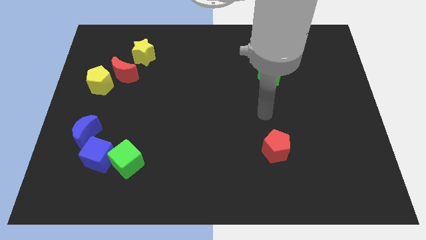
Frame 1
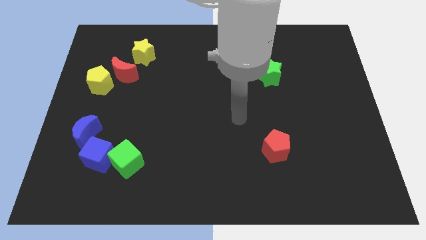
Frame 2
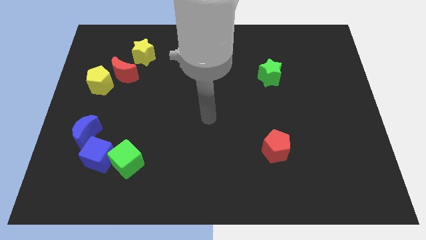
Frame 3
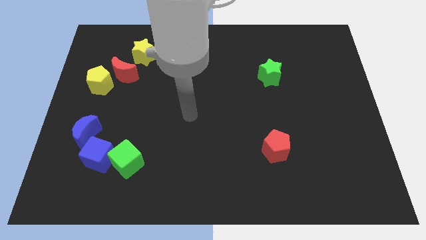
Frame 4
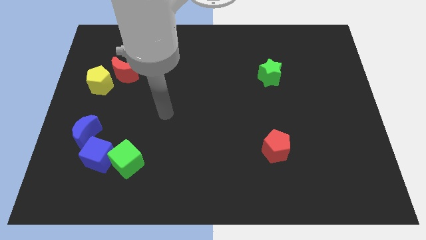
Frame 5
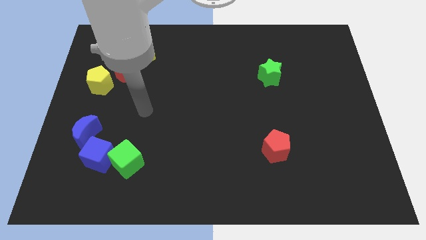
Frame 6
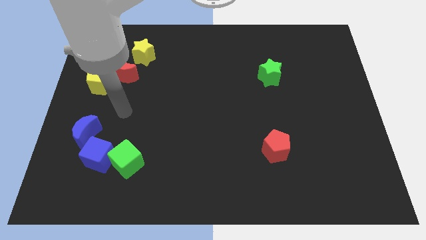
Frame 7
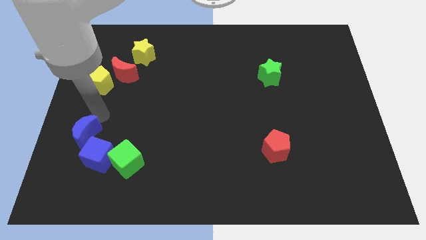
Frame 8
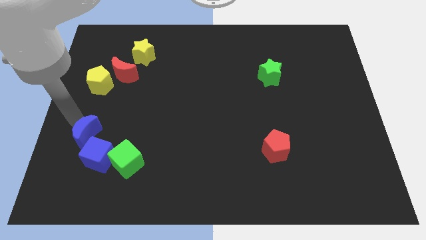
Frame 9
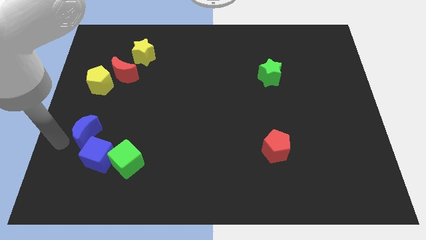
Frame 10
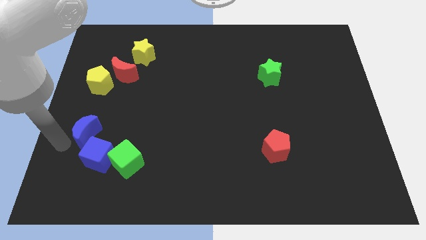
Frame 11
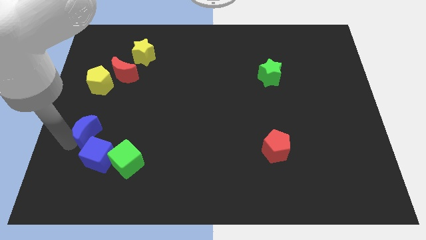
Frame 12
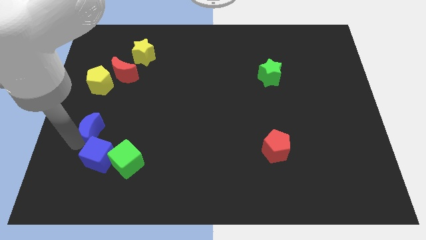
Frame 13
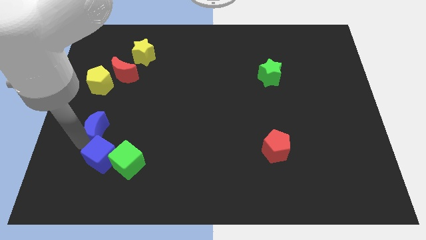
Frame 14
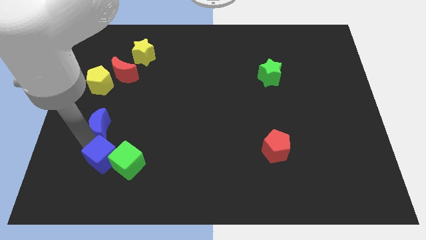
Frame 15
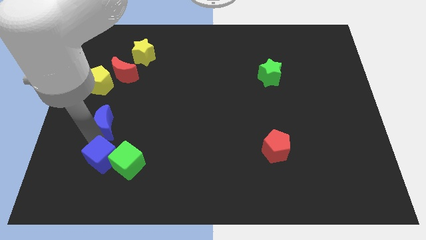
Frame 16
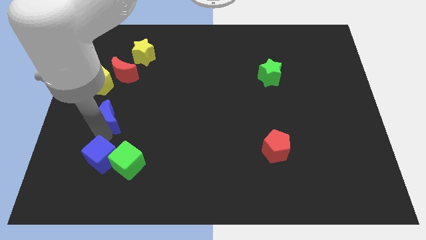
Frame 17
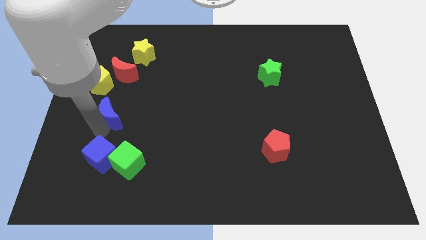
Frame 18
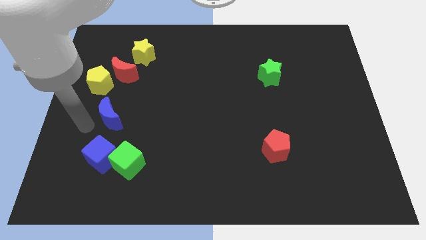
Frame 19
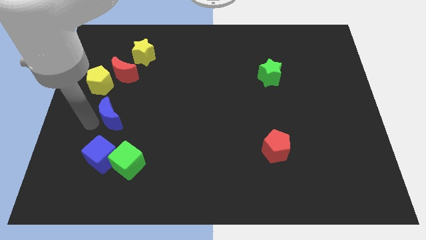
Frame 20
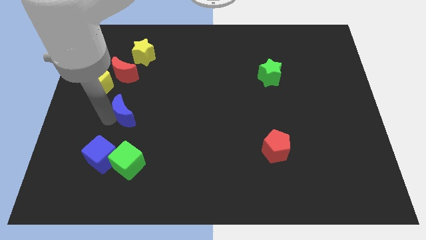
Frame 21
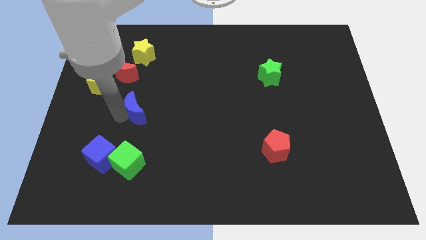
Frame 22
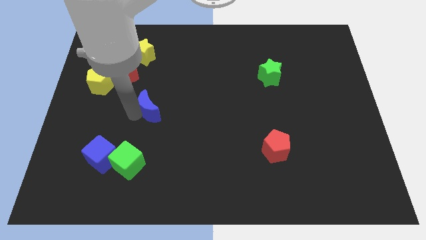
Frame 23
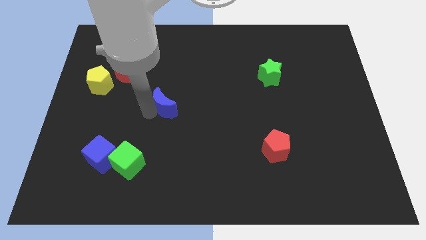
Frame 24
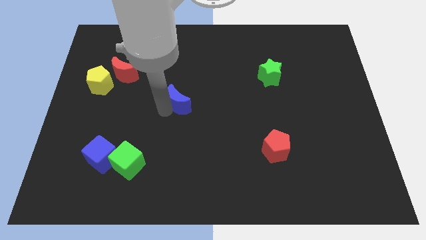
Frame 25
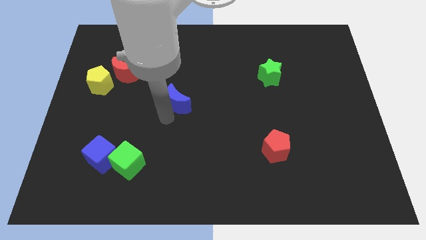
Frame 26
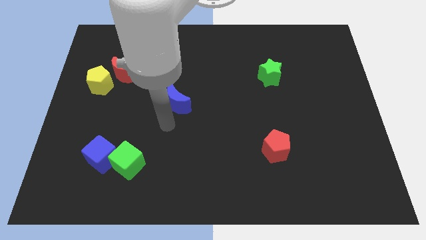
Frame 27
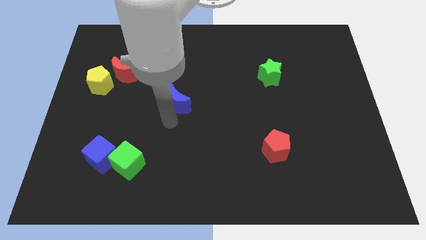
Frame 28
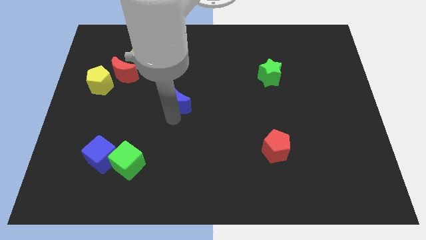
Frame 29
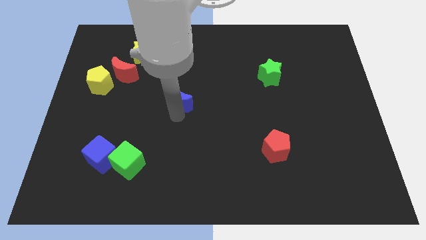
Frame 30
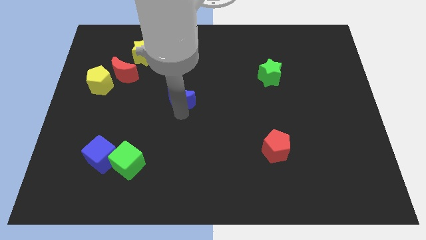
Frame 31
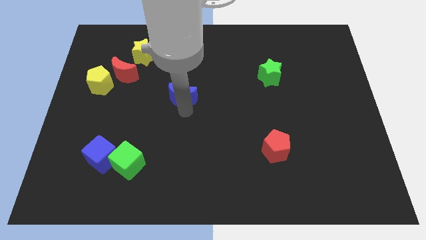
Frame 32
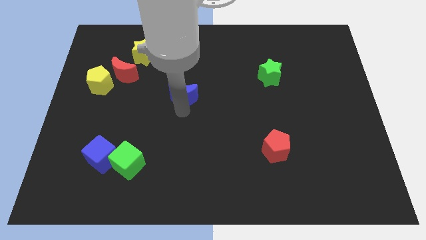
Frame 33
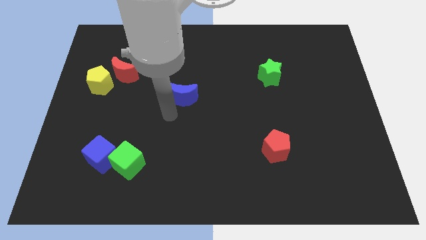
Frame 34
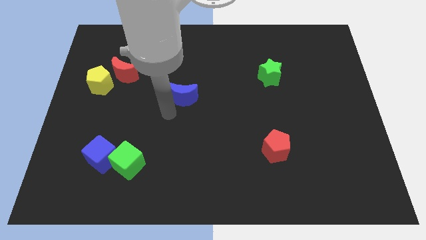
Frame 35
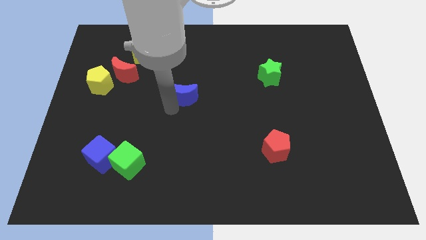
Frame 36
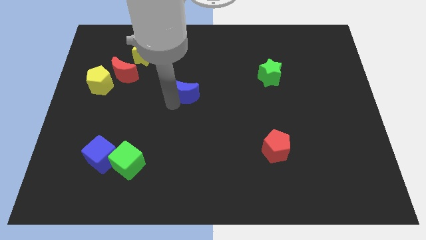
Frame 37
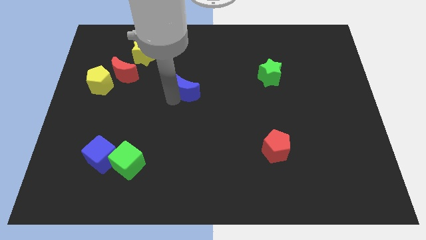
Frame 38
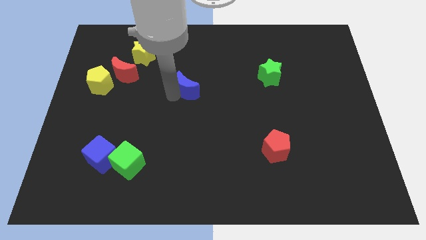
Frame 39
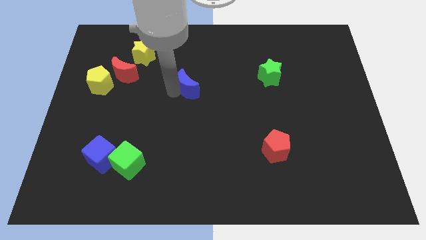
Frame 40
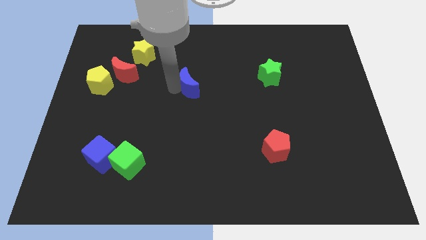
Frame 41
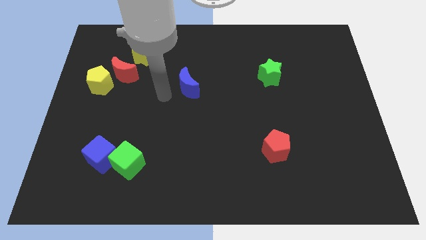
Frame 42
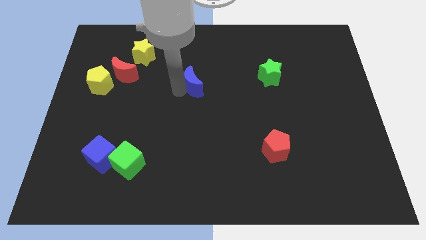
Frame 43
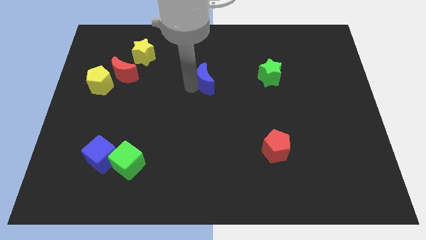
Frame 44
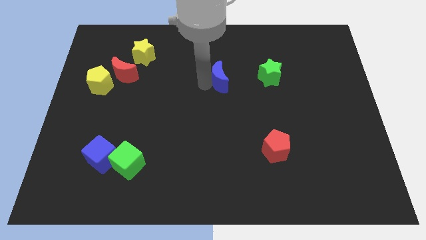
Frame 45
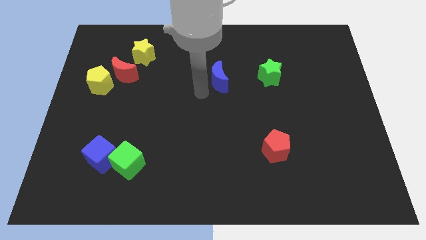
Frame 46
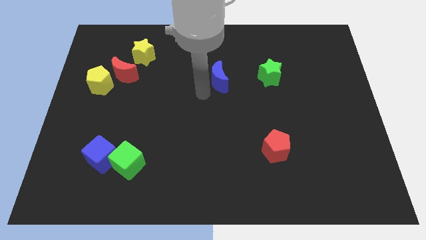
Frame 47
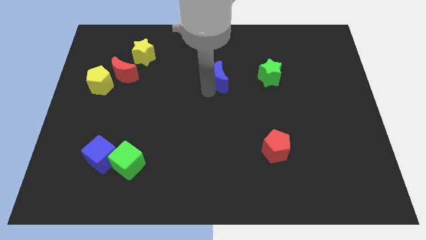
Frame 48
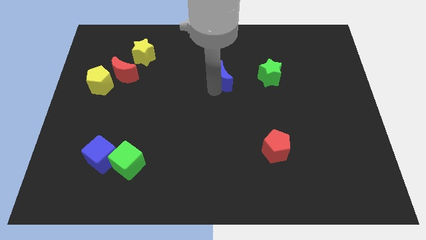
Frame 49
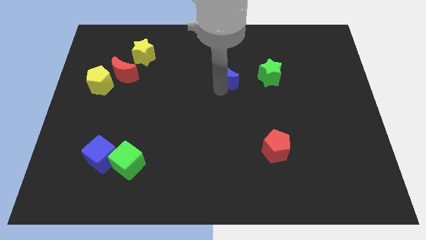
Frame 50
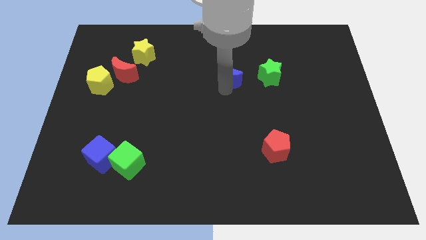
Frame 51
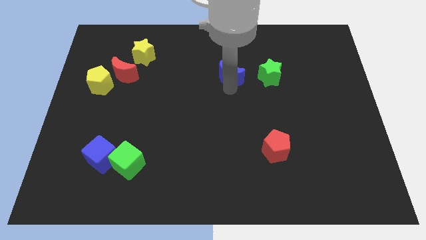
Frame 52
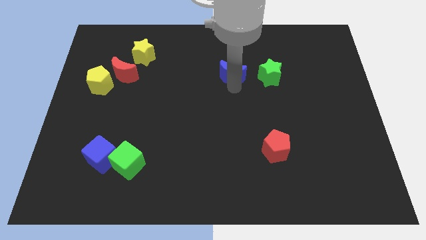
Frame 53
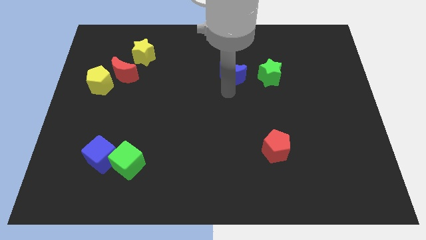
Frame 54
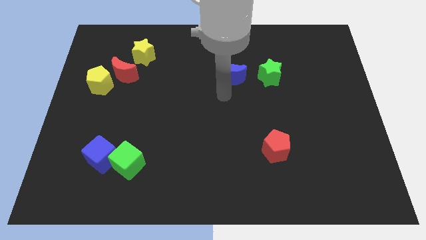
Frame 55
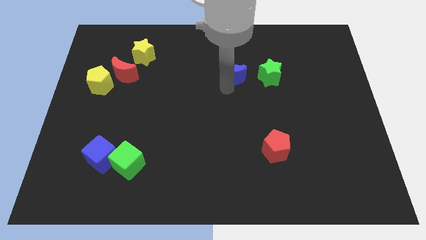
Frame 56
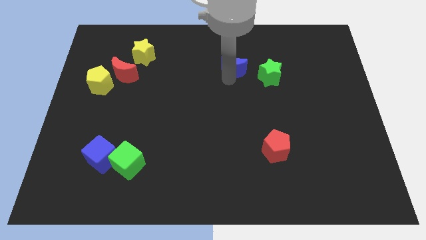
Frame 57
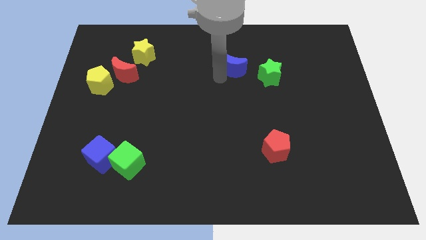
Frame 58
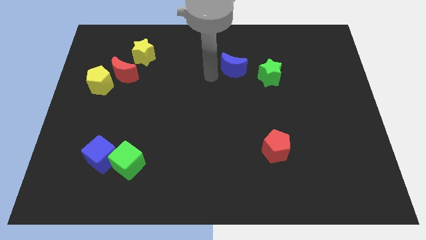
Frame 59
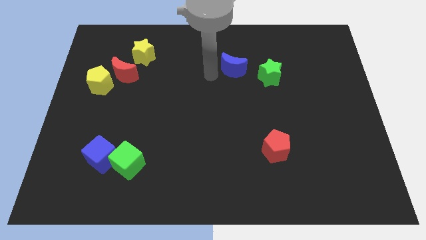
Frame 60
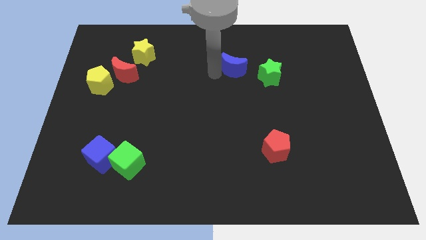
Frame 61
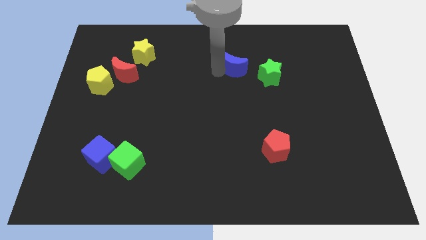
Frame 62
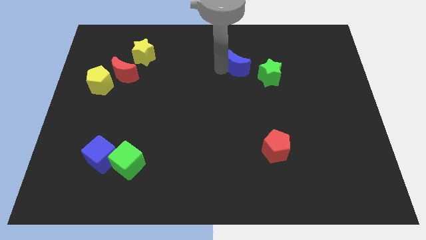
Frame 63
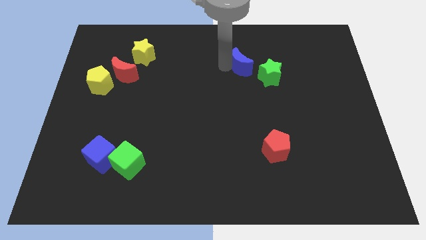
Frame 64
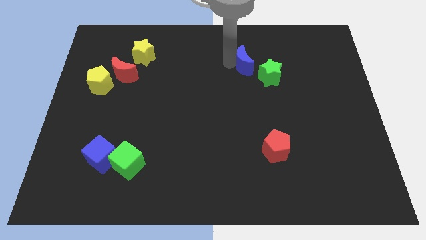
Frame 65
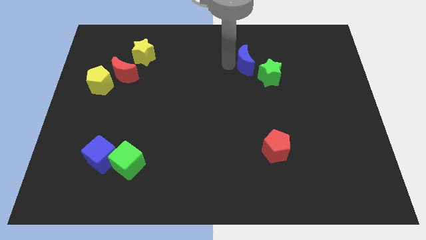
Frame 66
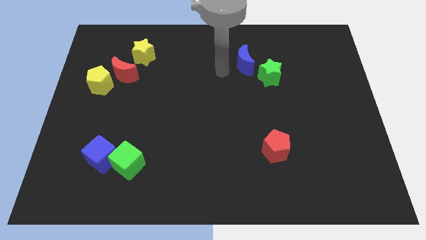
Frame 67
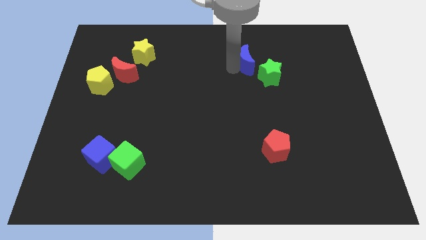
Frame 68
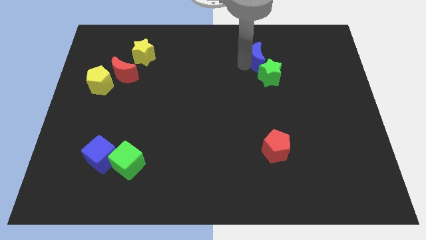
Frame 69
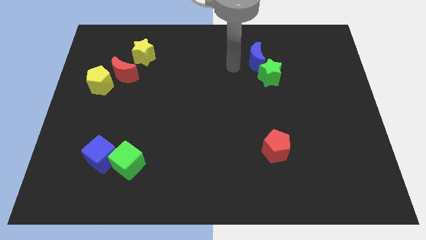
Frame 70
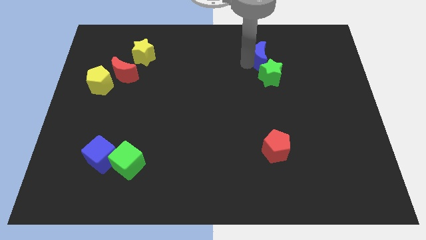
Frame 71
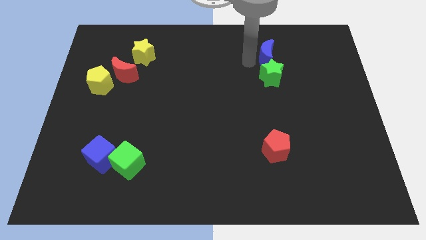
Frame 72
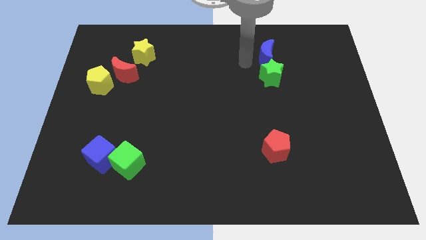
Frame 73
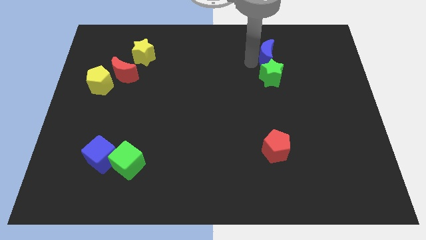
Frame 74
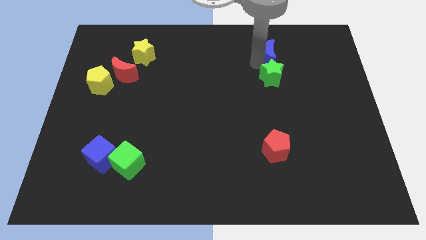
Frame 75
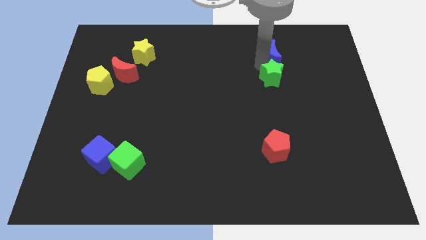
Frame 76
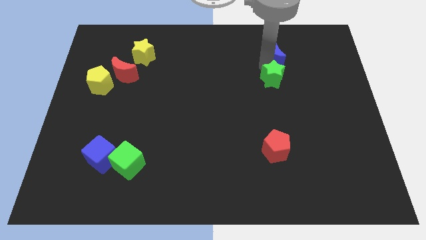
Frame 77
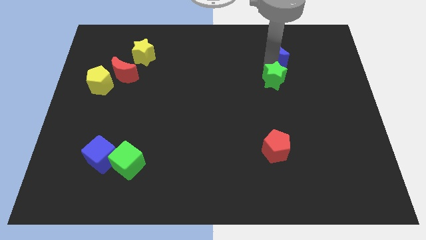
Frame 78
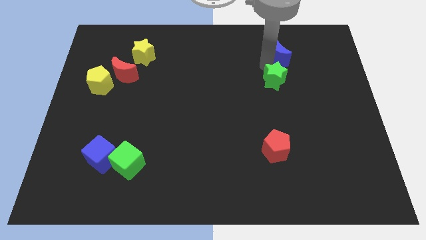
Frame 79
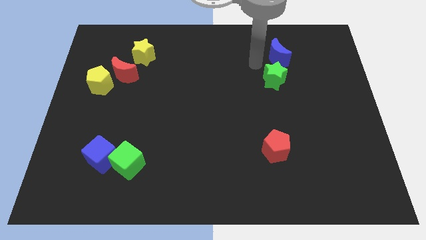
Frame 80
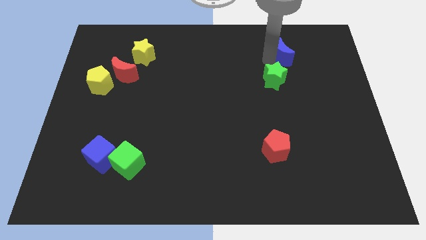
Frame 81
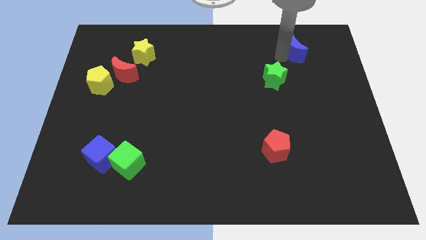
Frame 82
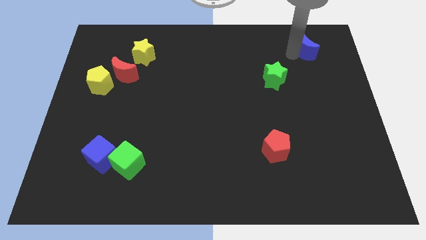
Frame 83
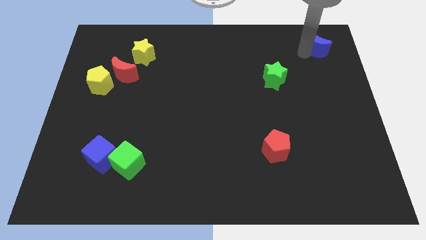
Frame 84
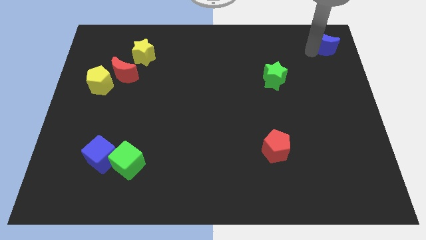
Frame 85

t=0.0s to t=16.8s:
push the blue moon to the top right corner
